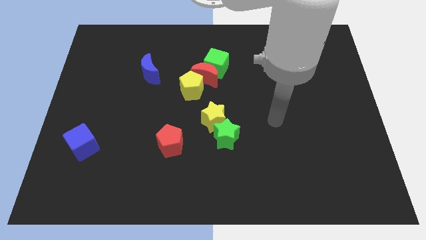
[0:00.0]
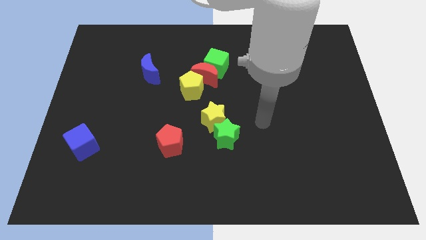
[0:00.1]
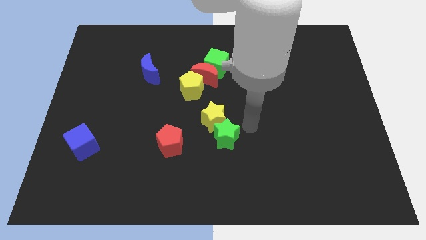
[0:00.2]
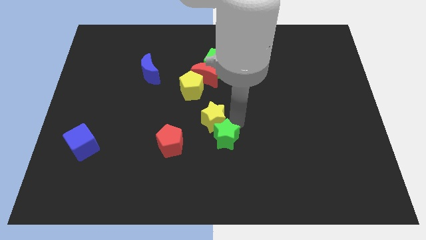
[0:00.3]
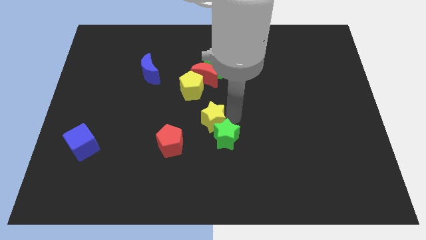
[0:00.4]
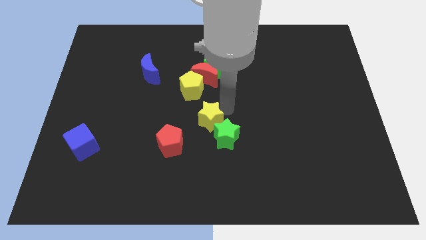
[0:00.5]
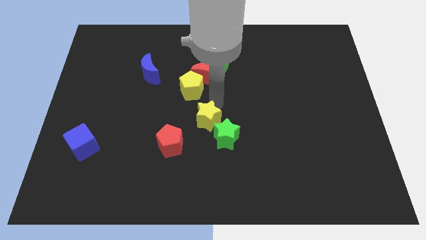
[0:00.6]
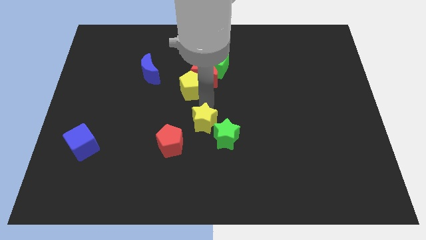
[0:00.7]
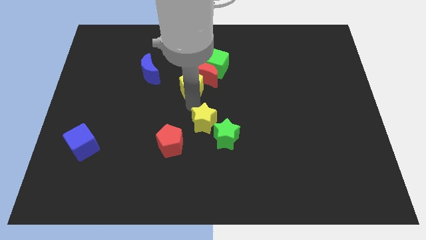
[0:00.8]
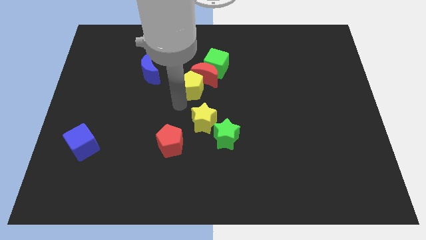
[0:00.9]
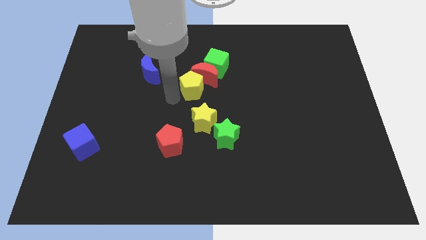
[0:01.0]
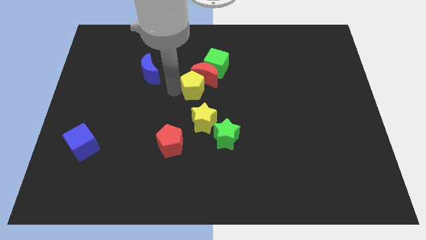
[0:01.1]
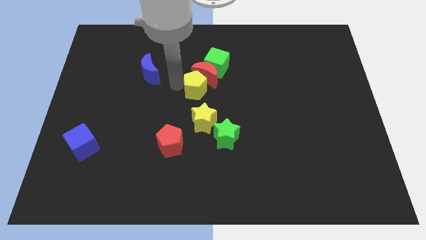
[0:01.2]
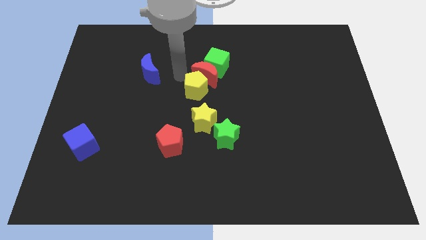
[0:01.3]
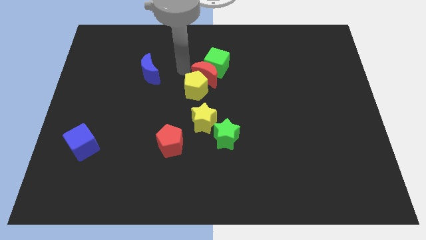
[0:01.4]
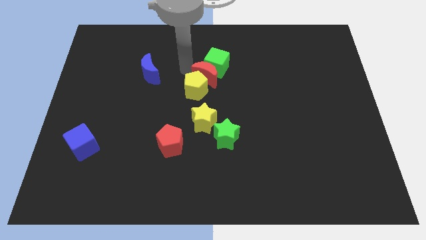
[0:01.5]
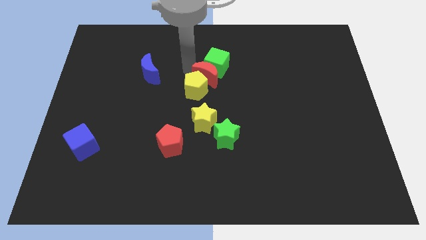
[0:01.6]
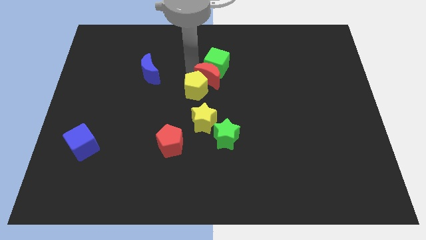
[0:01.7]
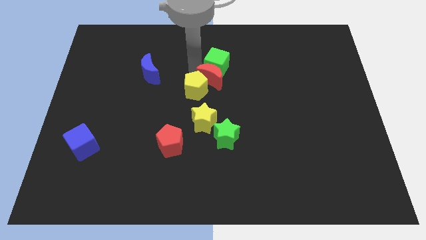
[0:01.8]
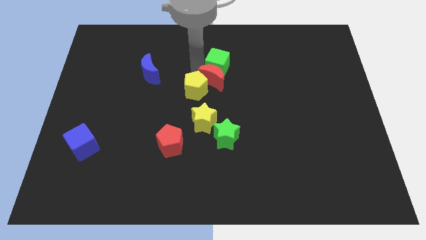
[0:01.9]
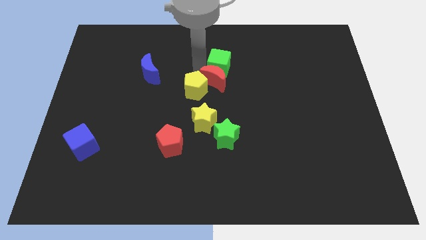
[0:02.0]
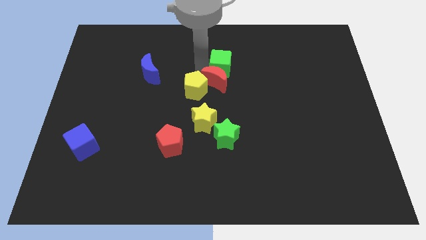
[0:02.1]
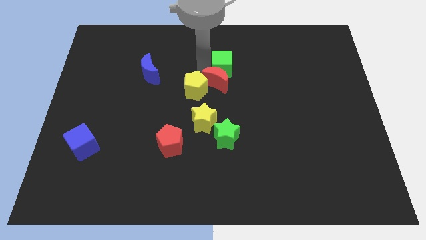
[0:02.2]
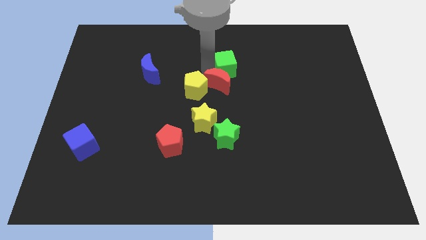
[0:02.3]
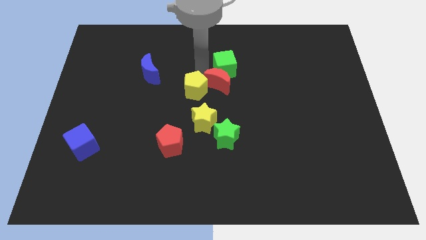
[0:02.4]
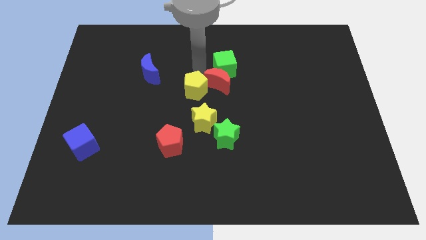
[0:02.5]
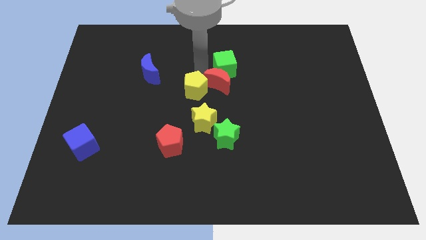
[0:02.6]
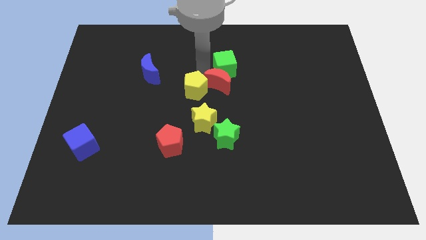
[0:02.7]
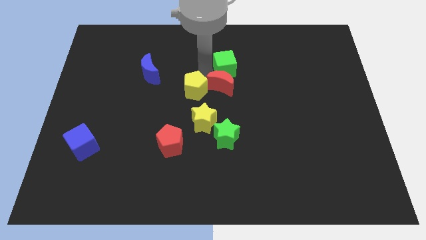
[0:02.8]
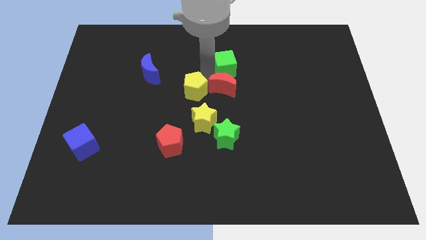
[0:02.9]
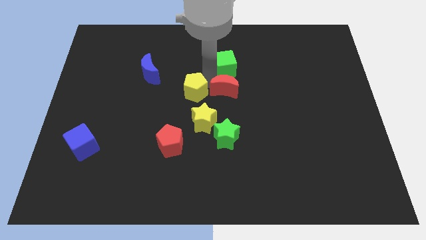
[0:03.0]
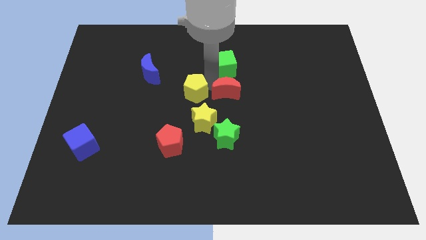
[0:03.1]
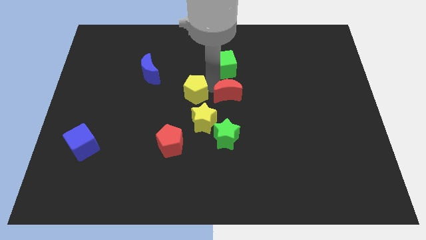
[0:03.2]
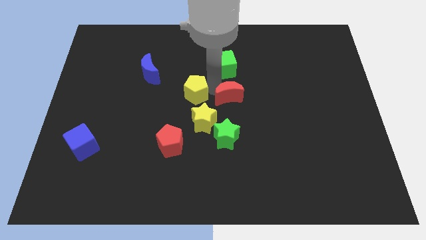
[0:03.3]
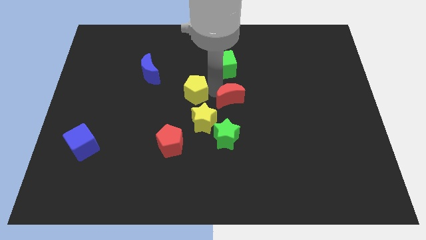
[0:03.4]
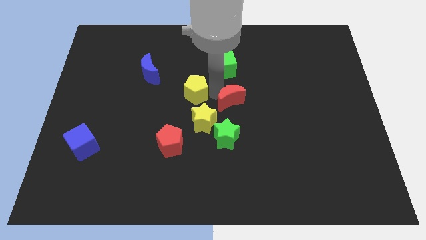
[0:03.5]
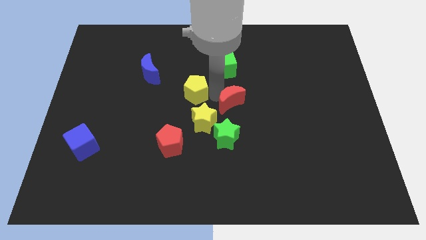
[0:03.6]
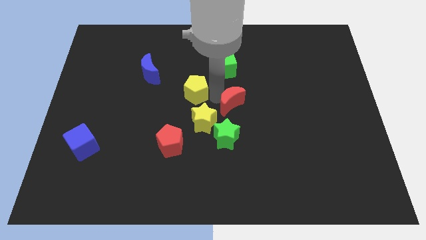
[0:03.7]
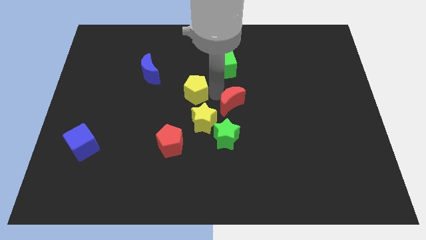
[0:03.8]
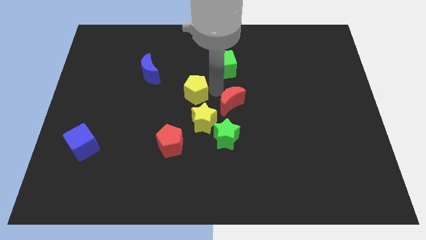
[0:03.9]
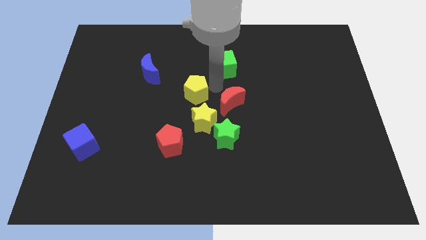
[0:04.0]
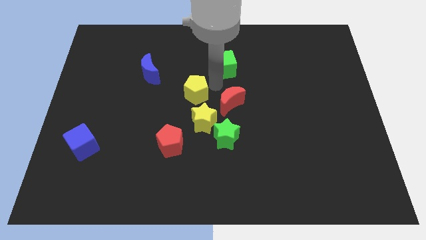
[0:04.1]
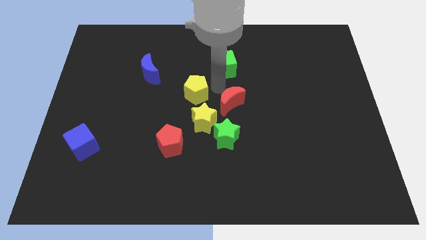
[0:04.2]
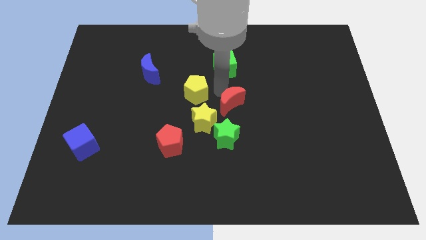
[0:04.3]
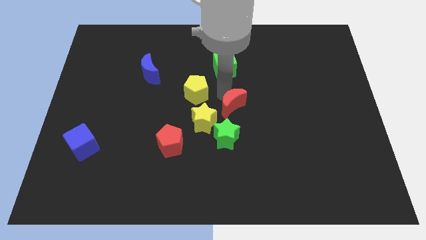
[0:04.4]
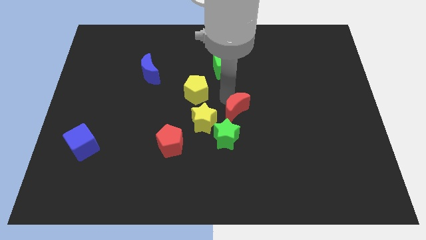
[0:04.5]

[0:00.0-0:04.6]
pull the red moon apart from the green cube and yellow pentagon

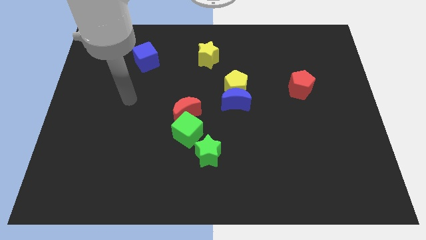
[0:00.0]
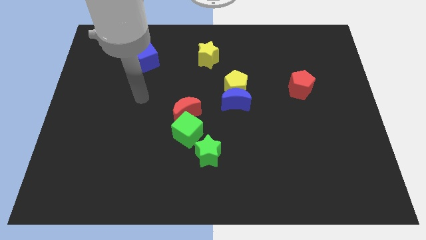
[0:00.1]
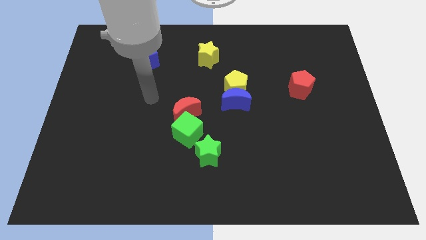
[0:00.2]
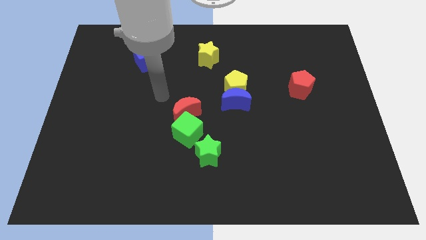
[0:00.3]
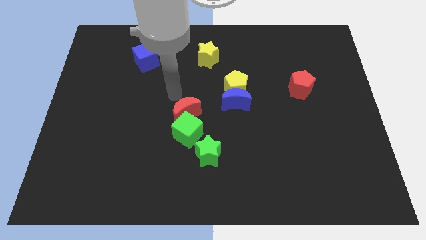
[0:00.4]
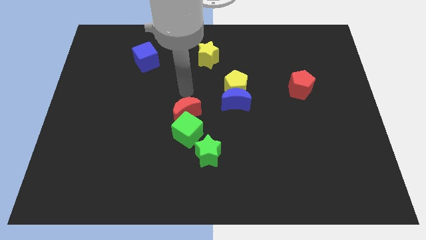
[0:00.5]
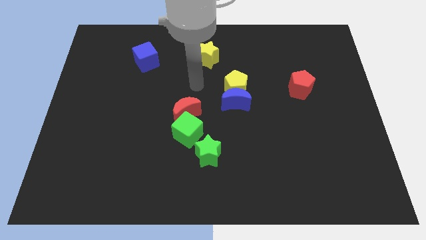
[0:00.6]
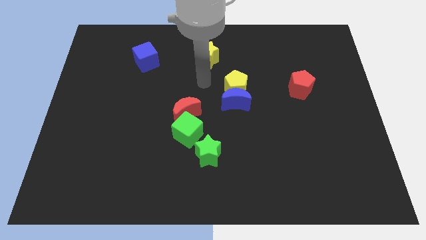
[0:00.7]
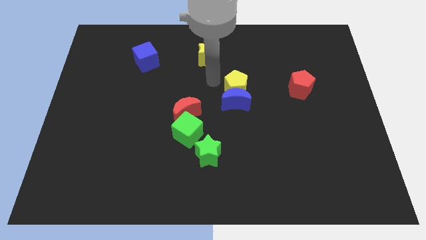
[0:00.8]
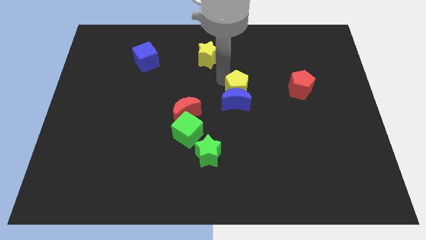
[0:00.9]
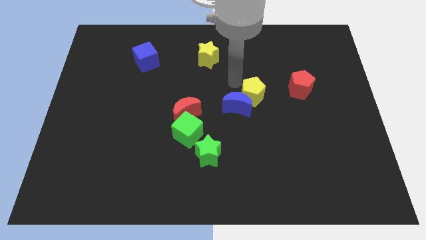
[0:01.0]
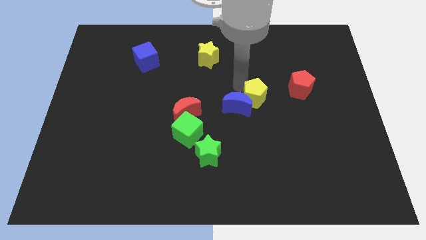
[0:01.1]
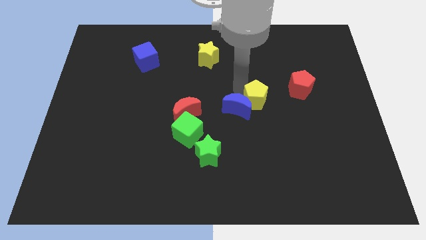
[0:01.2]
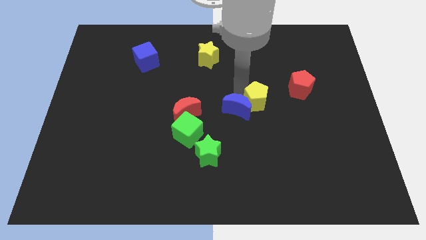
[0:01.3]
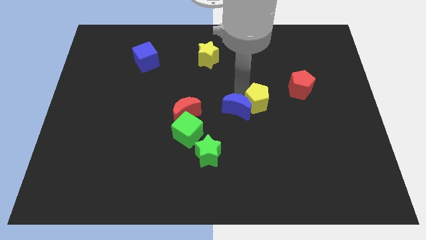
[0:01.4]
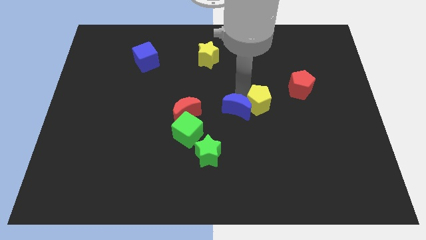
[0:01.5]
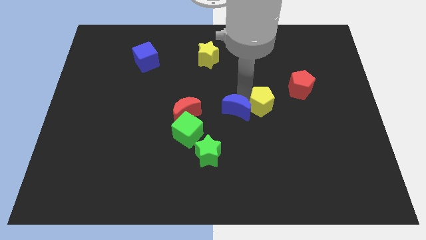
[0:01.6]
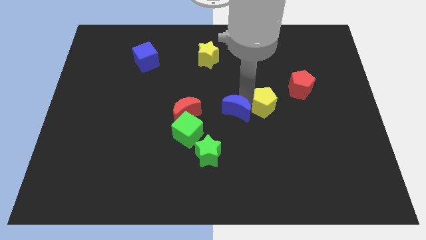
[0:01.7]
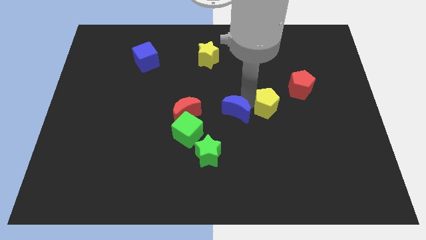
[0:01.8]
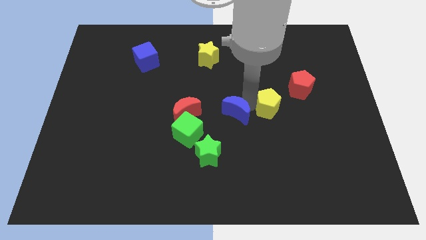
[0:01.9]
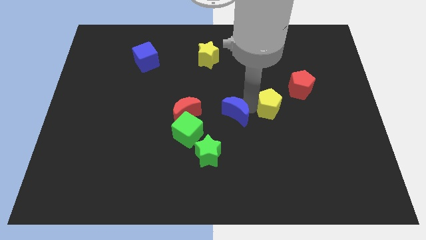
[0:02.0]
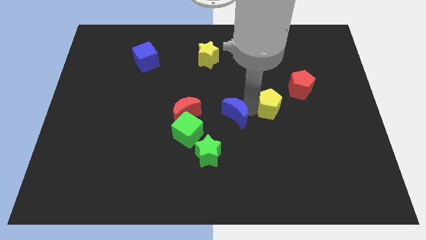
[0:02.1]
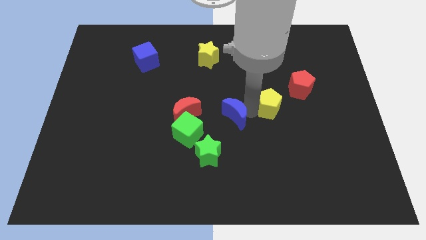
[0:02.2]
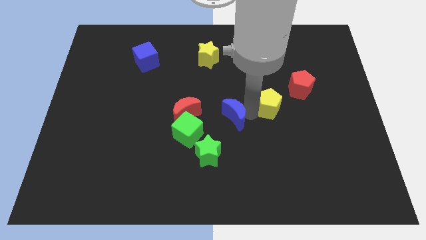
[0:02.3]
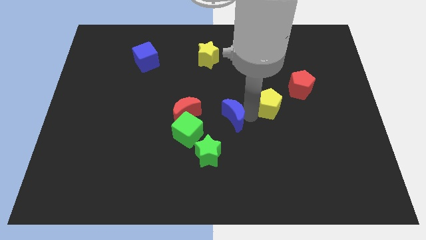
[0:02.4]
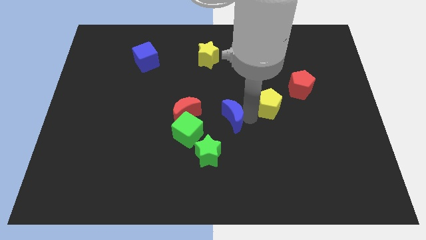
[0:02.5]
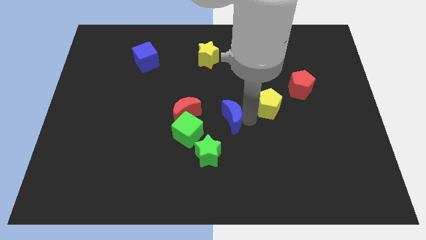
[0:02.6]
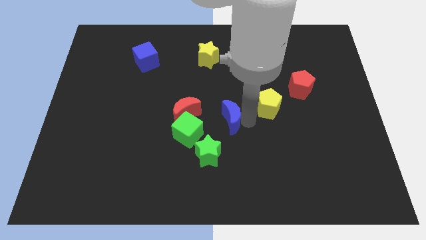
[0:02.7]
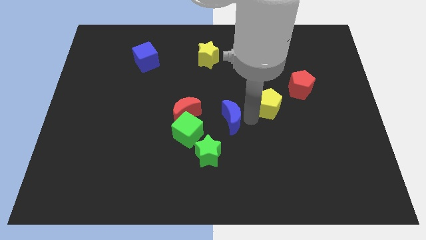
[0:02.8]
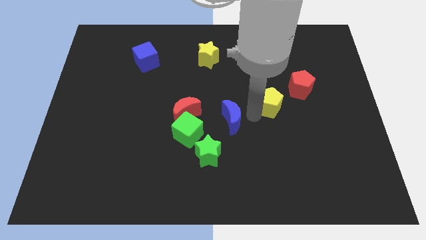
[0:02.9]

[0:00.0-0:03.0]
move the blue moon away from the yellow pentagon

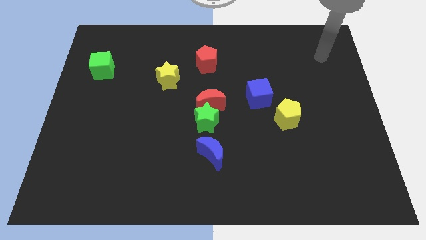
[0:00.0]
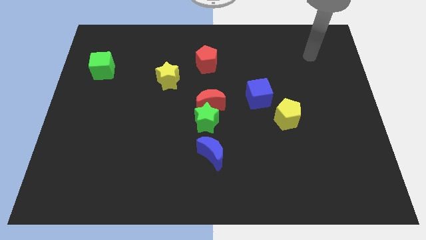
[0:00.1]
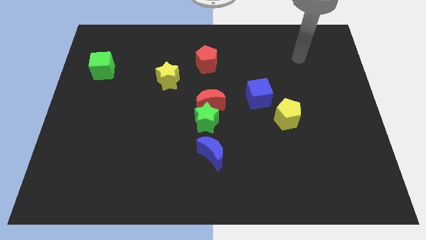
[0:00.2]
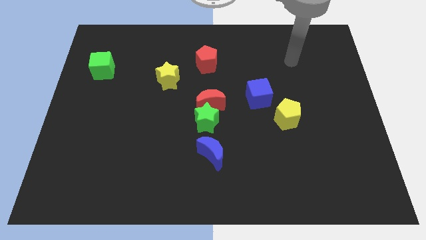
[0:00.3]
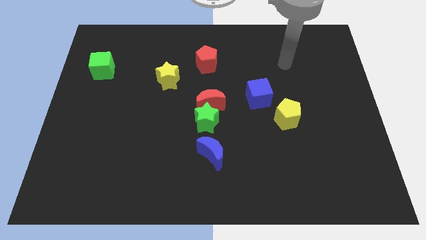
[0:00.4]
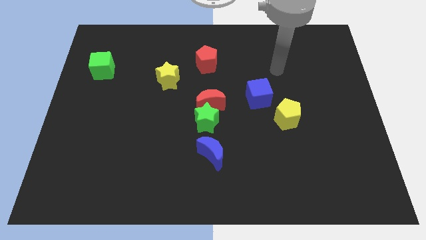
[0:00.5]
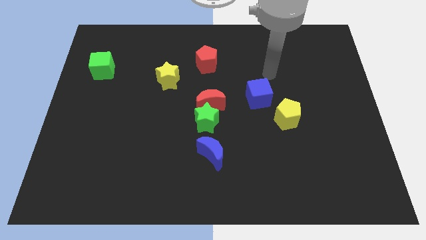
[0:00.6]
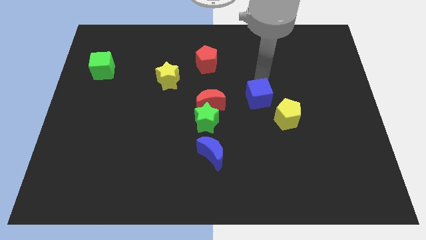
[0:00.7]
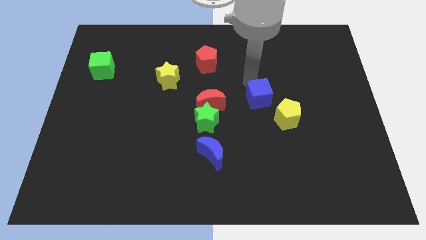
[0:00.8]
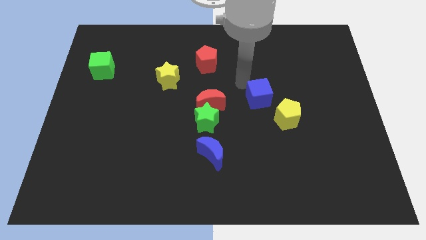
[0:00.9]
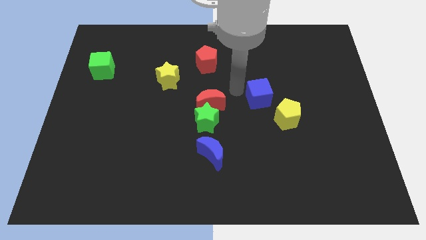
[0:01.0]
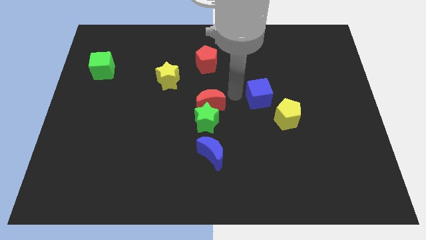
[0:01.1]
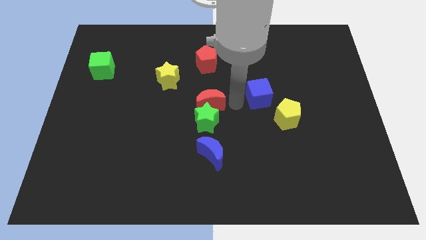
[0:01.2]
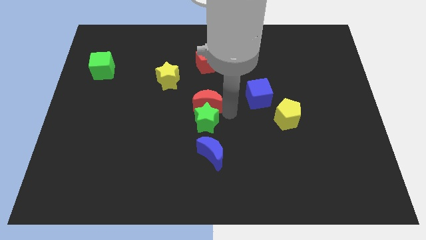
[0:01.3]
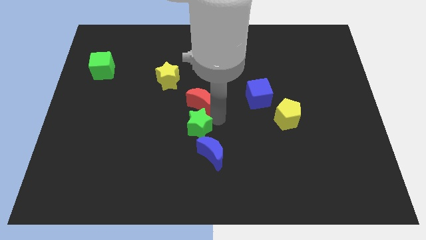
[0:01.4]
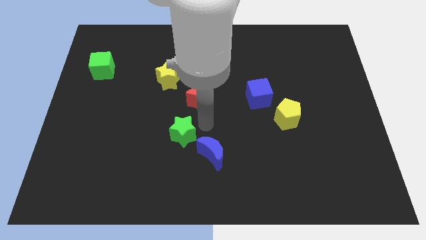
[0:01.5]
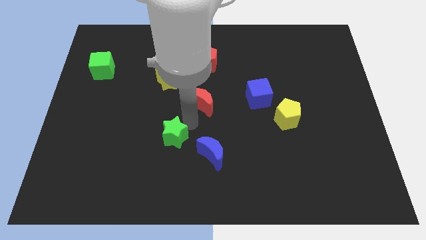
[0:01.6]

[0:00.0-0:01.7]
separate the red moon from the green star
